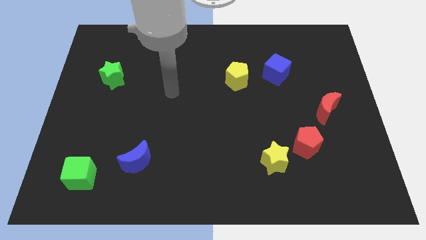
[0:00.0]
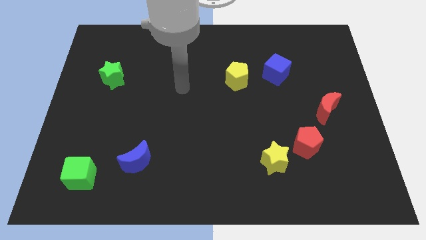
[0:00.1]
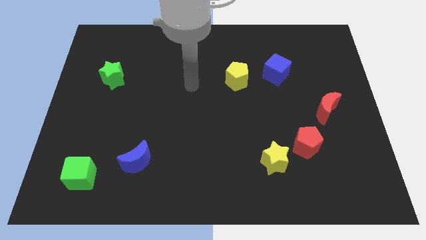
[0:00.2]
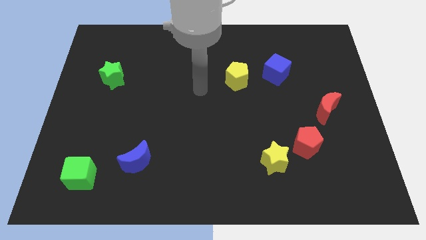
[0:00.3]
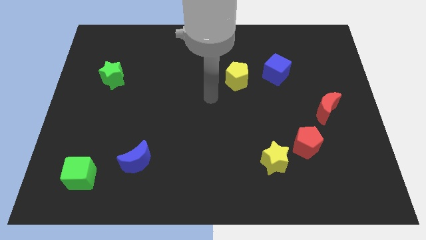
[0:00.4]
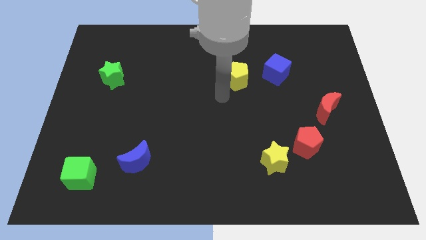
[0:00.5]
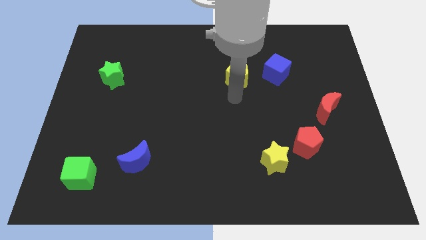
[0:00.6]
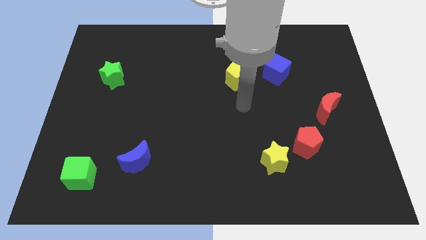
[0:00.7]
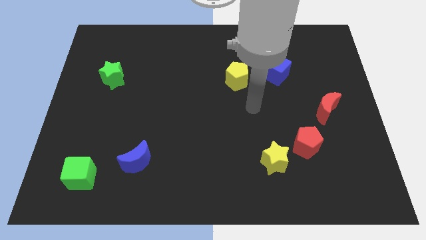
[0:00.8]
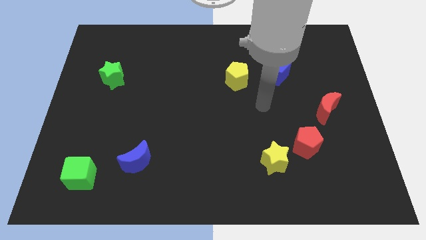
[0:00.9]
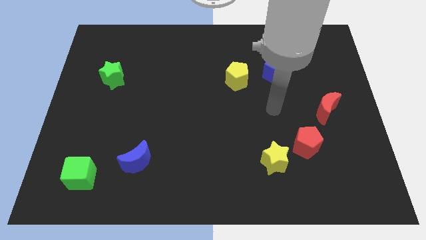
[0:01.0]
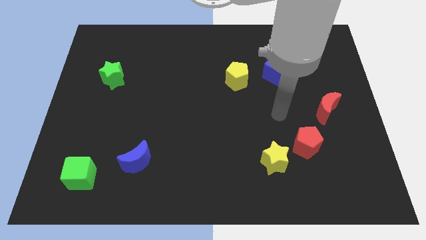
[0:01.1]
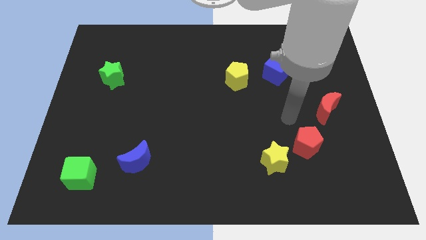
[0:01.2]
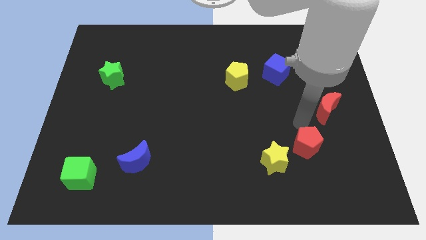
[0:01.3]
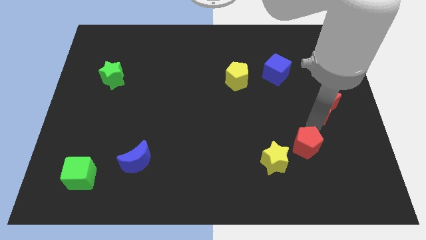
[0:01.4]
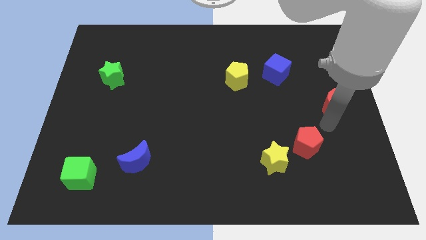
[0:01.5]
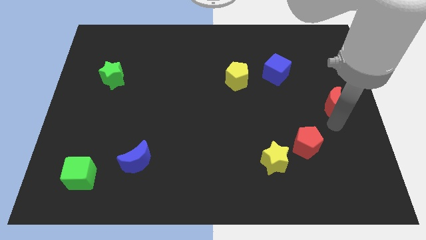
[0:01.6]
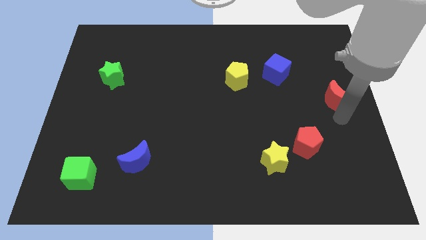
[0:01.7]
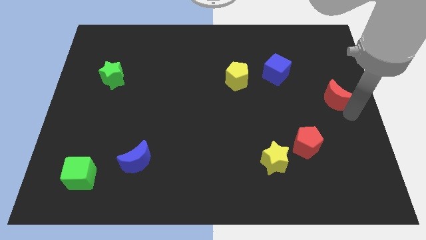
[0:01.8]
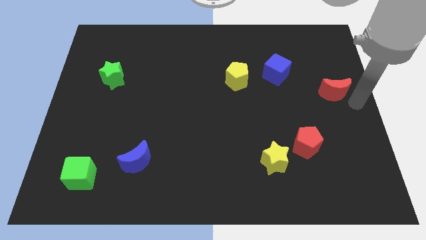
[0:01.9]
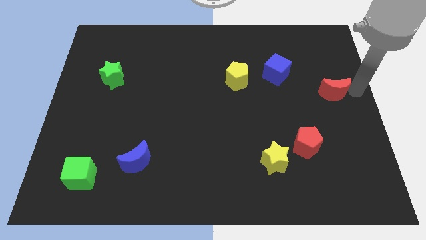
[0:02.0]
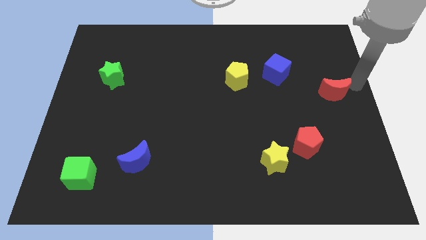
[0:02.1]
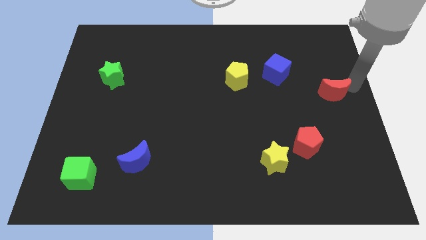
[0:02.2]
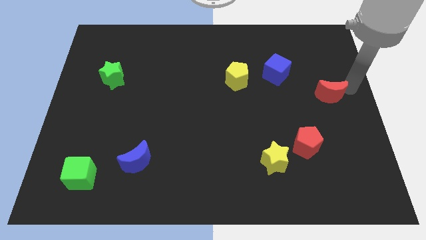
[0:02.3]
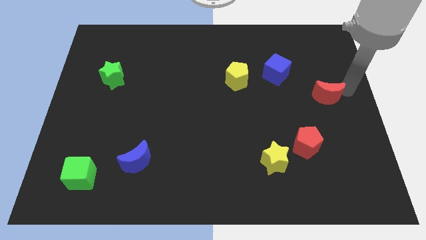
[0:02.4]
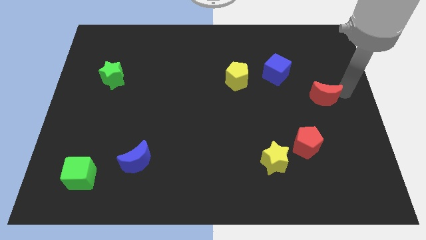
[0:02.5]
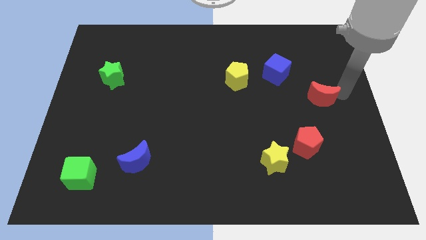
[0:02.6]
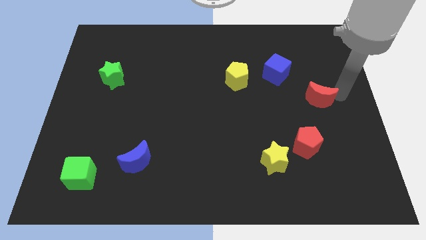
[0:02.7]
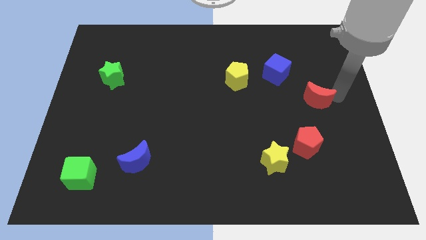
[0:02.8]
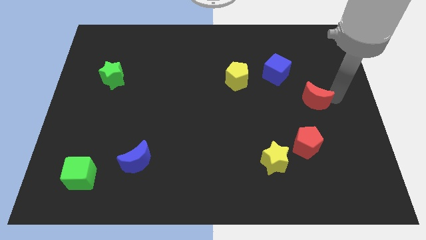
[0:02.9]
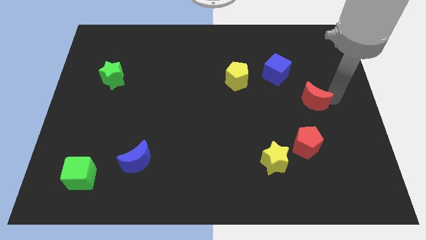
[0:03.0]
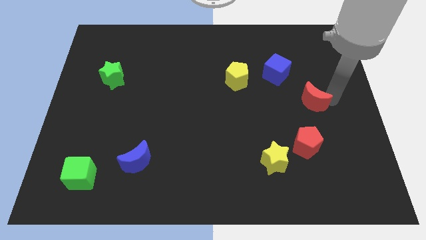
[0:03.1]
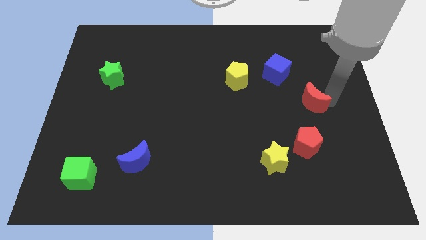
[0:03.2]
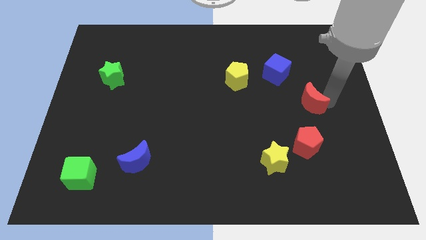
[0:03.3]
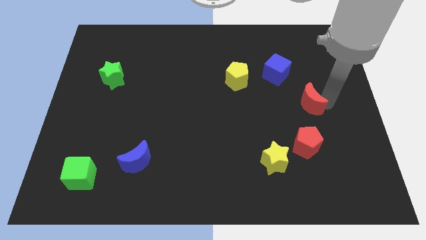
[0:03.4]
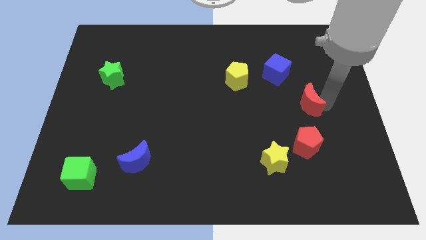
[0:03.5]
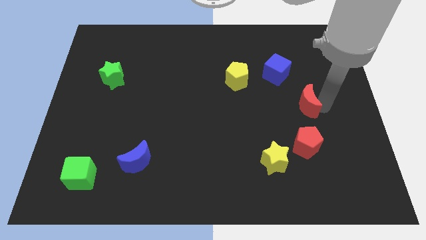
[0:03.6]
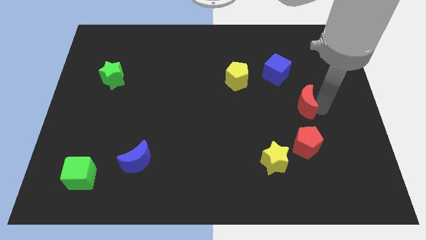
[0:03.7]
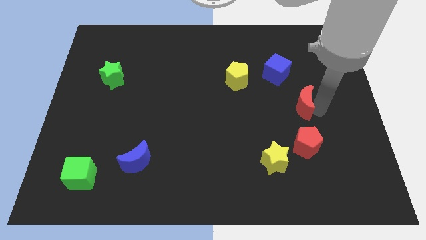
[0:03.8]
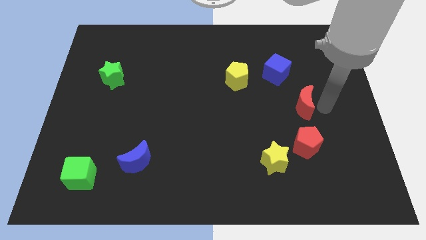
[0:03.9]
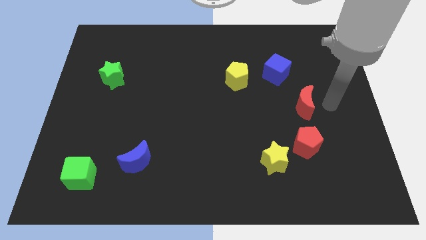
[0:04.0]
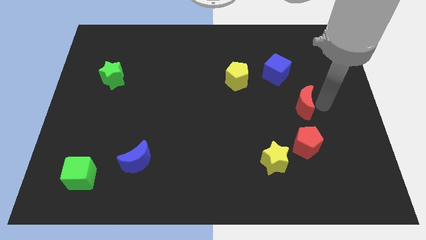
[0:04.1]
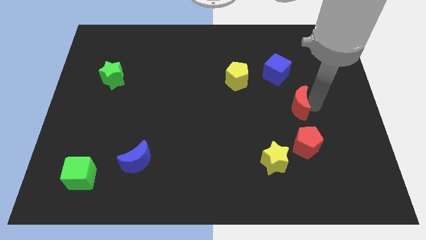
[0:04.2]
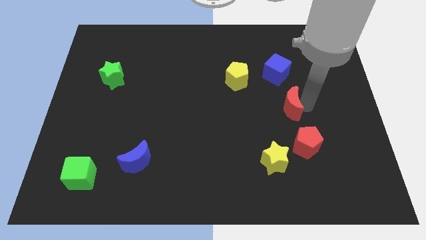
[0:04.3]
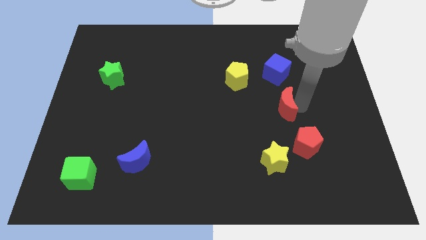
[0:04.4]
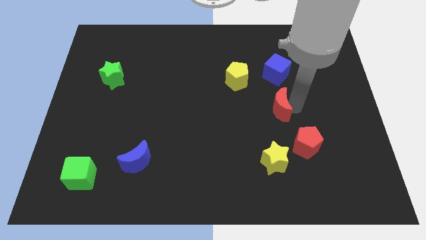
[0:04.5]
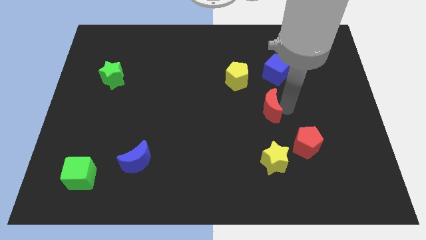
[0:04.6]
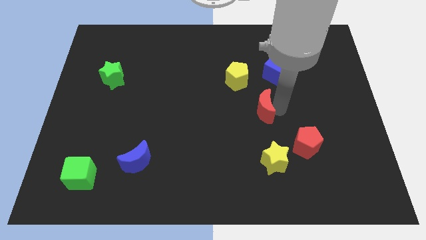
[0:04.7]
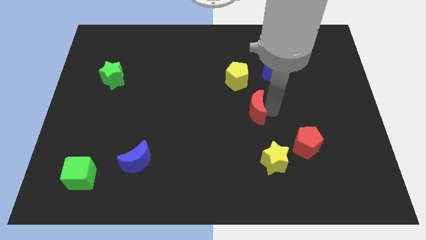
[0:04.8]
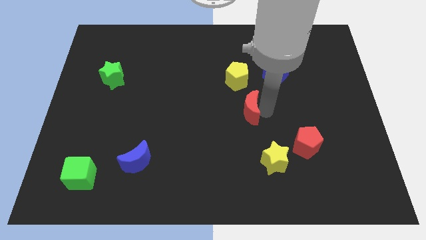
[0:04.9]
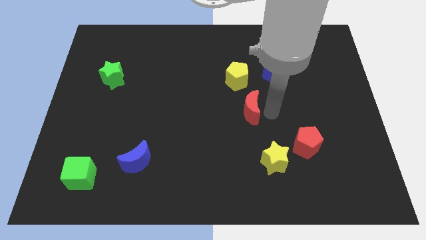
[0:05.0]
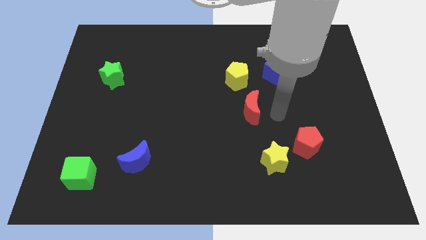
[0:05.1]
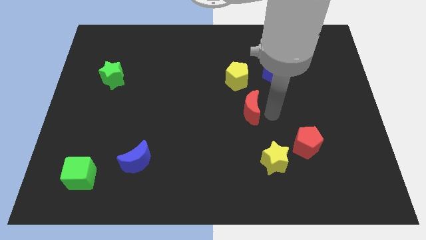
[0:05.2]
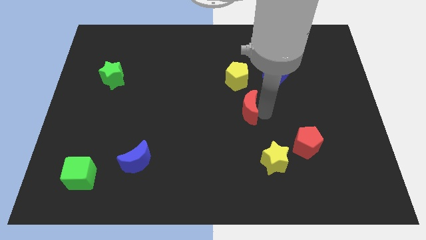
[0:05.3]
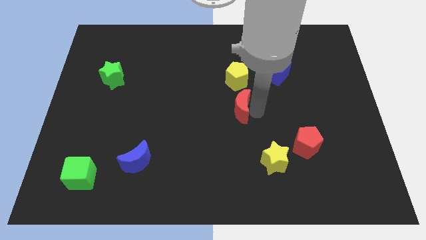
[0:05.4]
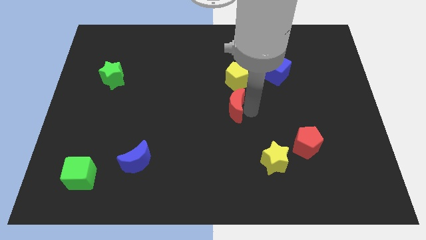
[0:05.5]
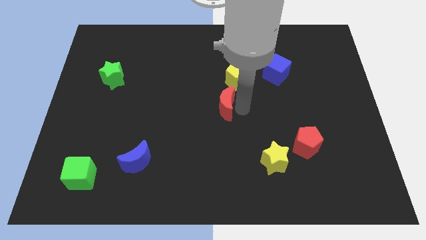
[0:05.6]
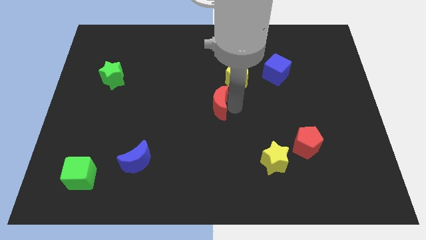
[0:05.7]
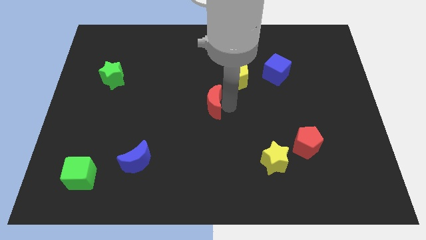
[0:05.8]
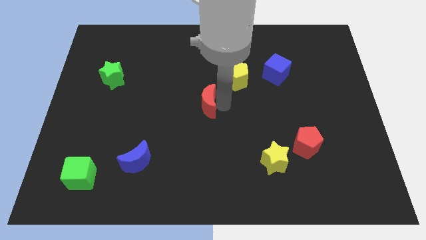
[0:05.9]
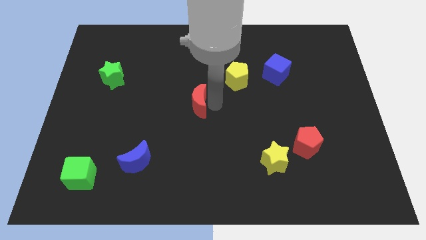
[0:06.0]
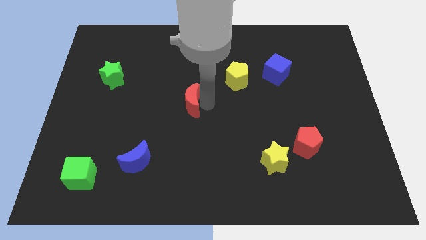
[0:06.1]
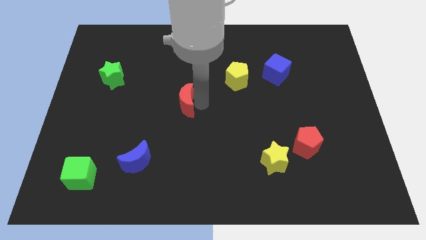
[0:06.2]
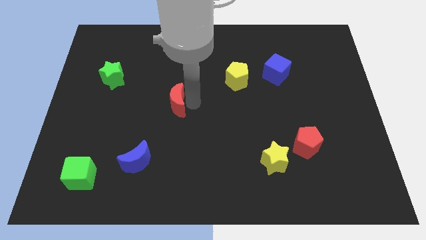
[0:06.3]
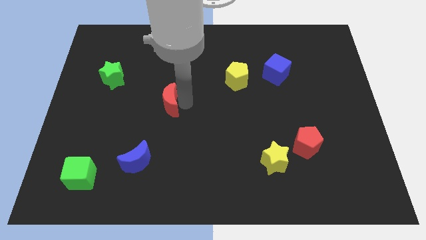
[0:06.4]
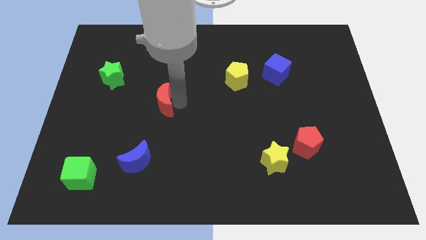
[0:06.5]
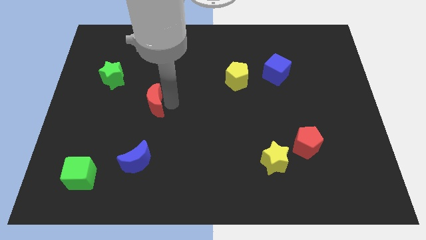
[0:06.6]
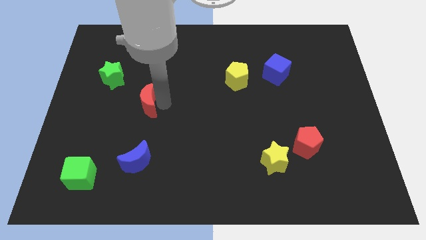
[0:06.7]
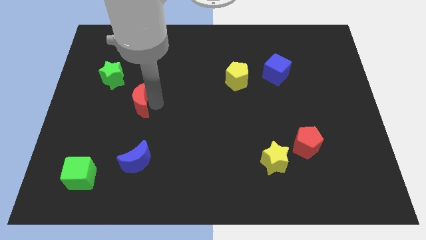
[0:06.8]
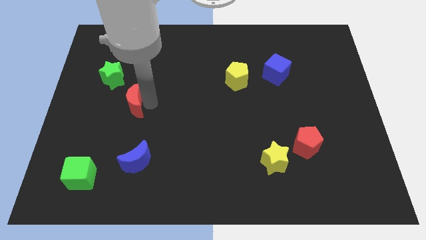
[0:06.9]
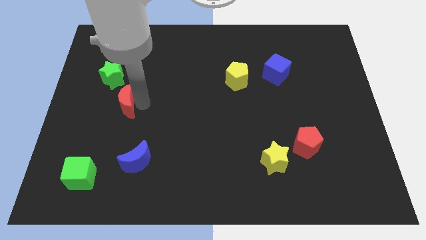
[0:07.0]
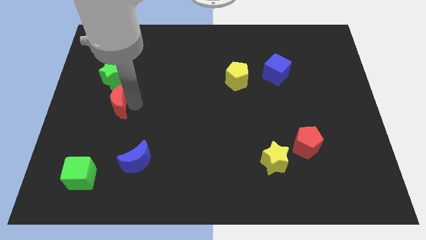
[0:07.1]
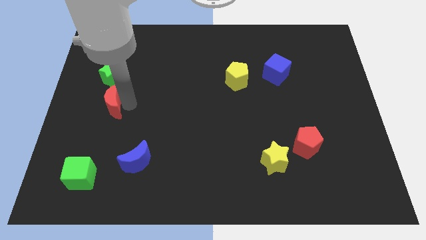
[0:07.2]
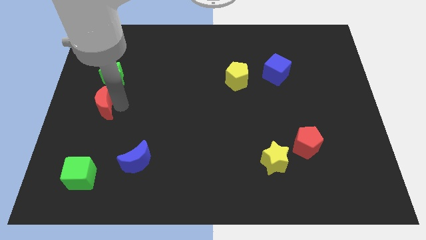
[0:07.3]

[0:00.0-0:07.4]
put the red moon to the center left

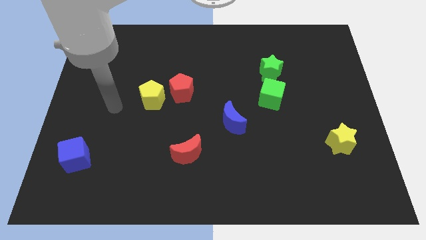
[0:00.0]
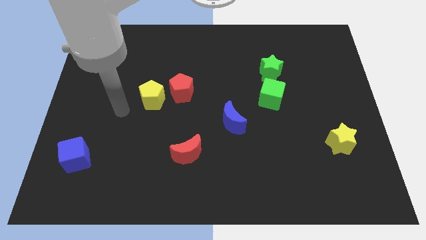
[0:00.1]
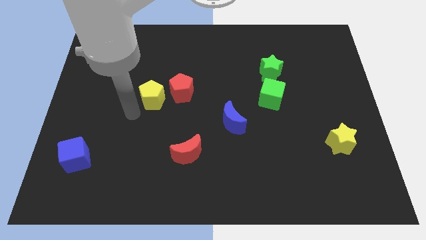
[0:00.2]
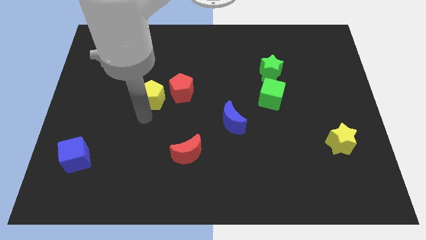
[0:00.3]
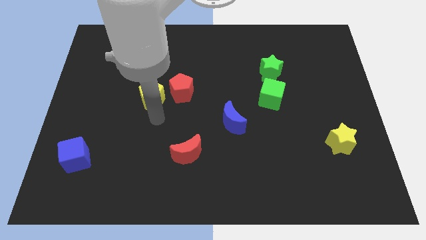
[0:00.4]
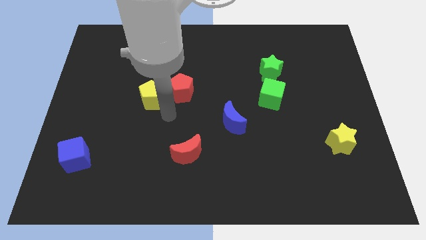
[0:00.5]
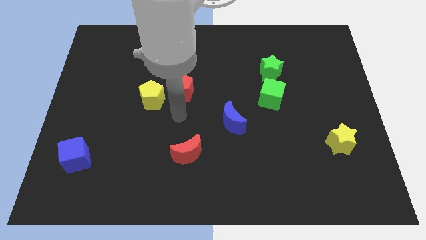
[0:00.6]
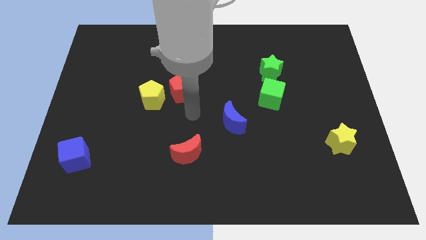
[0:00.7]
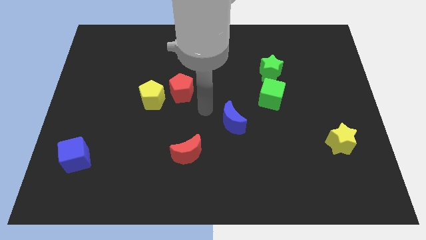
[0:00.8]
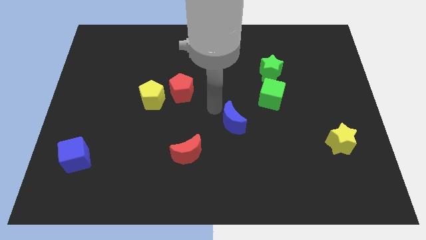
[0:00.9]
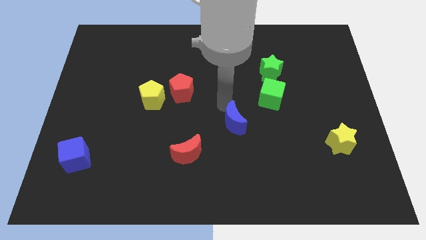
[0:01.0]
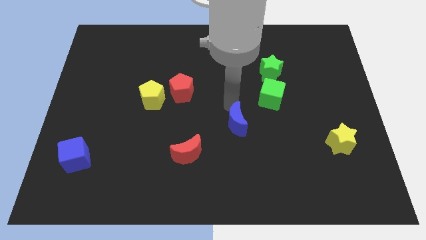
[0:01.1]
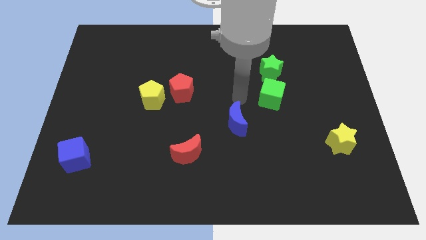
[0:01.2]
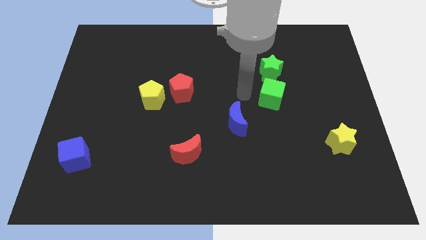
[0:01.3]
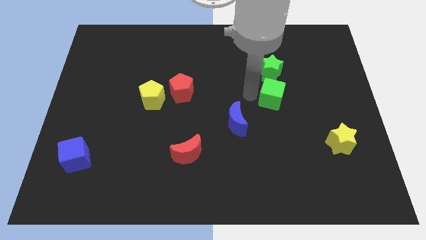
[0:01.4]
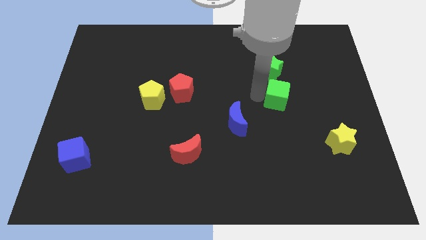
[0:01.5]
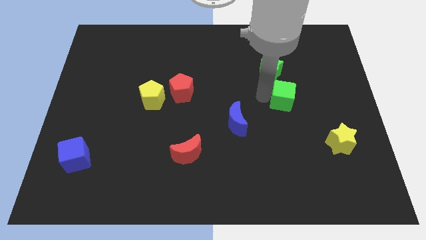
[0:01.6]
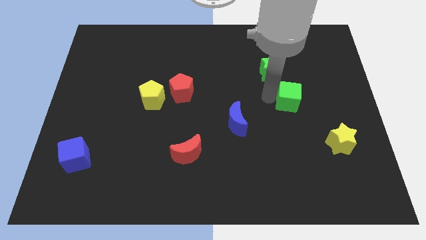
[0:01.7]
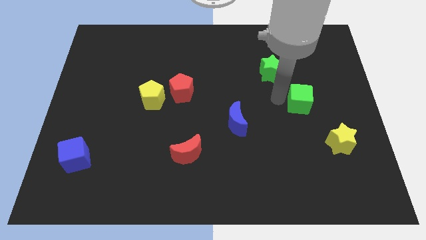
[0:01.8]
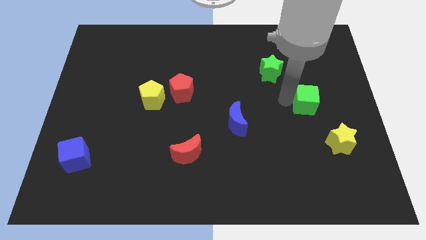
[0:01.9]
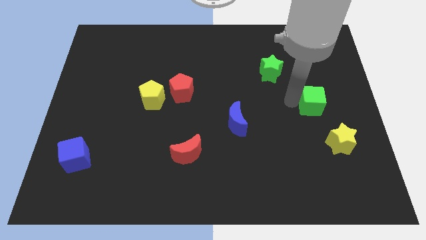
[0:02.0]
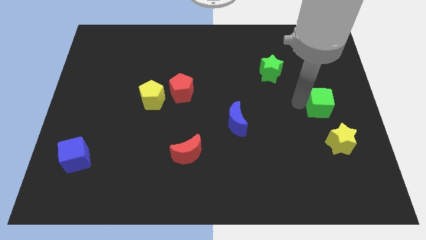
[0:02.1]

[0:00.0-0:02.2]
push the green cube to the center right
